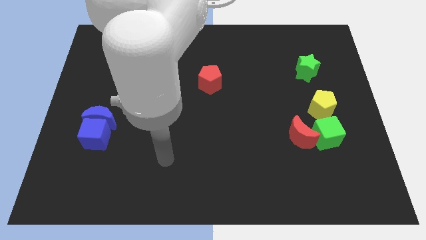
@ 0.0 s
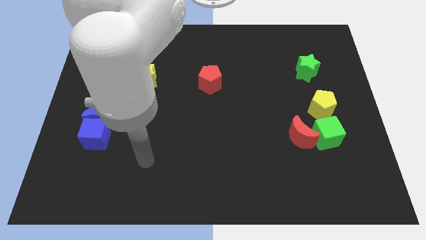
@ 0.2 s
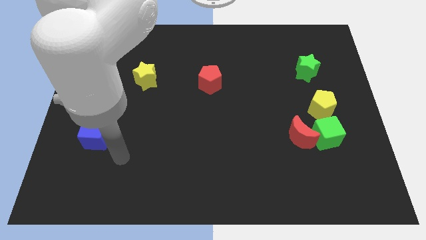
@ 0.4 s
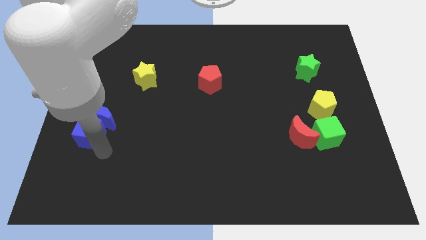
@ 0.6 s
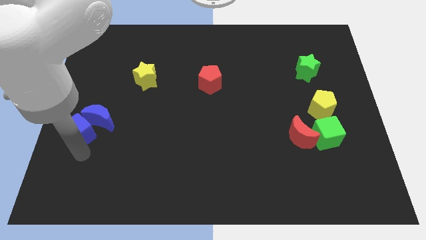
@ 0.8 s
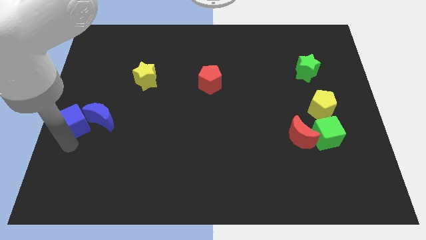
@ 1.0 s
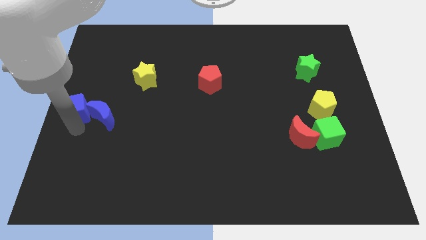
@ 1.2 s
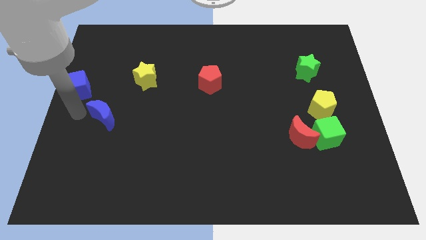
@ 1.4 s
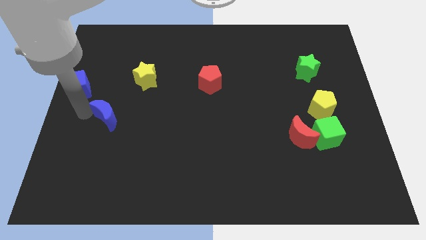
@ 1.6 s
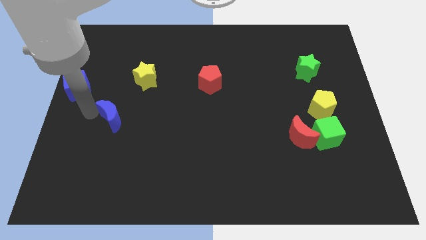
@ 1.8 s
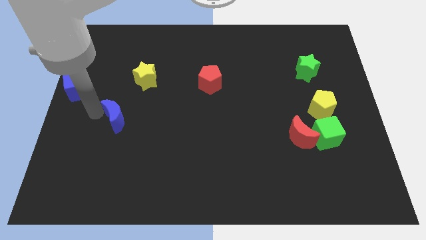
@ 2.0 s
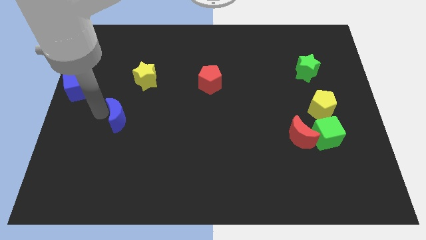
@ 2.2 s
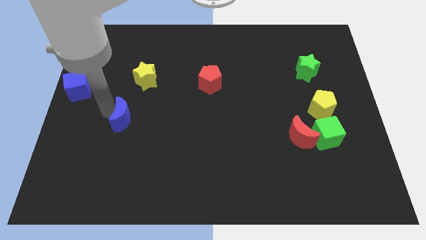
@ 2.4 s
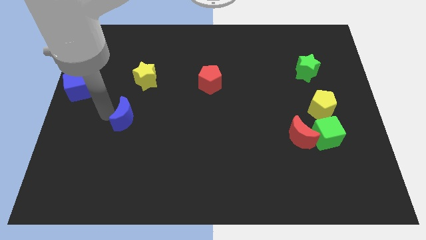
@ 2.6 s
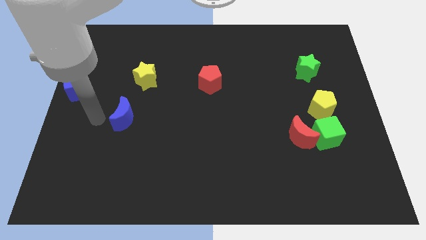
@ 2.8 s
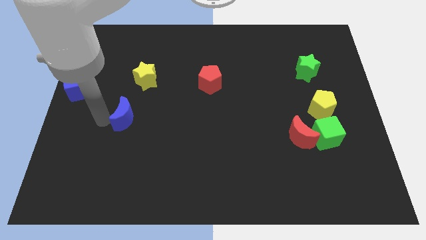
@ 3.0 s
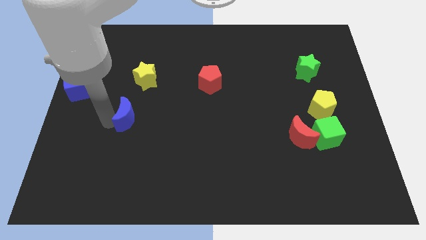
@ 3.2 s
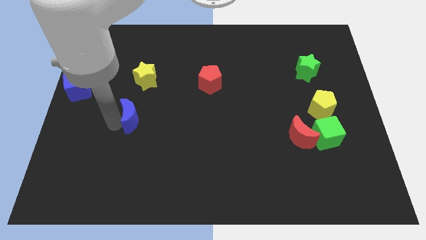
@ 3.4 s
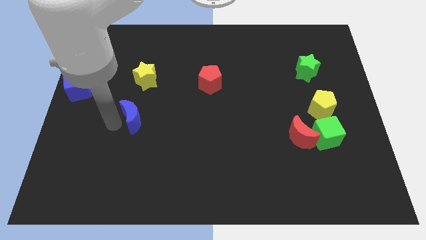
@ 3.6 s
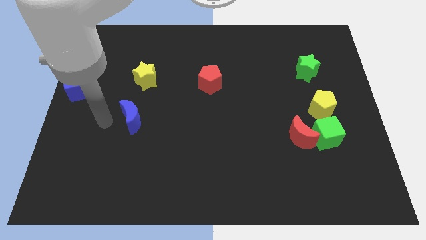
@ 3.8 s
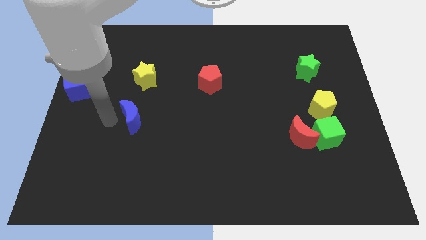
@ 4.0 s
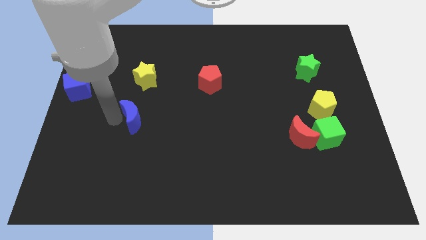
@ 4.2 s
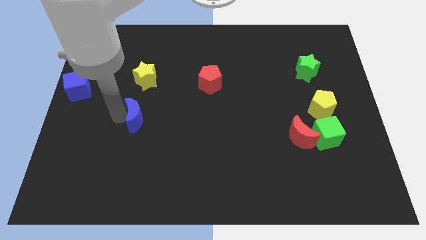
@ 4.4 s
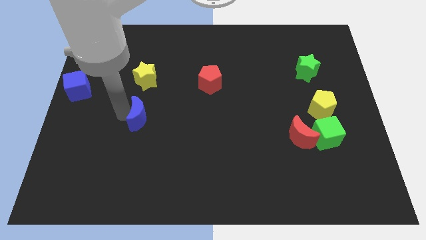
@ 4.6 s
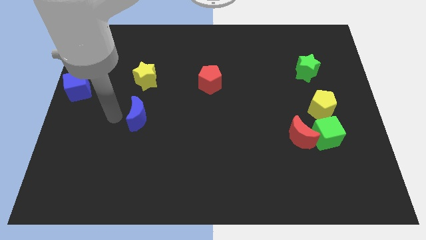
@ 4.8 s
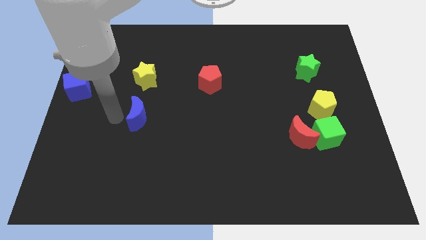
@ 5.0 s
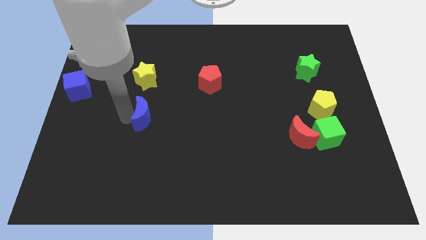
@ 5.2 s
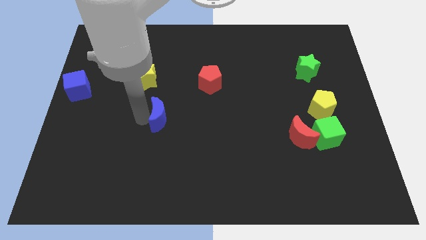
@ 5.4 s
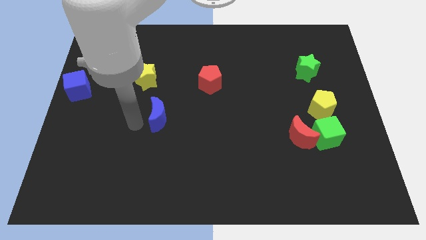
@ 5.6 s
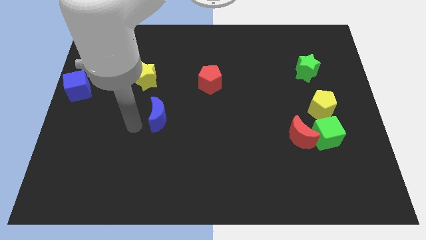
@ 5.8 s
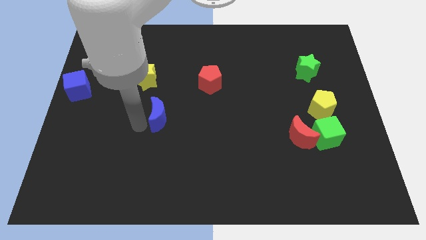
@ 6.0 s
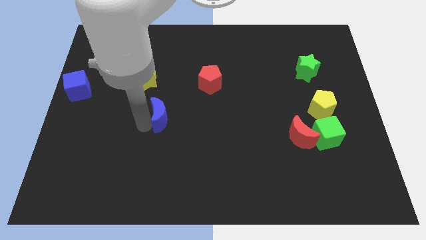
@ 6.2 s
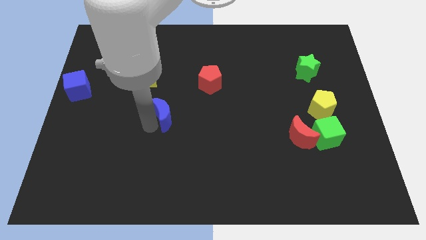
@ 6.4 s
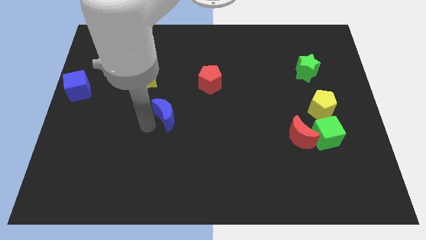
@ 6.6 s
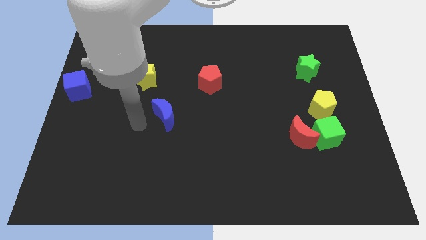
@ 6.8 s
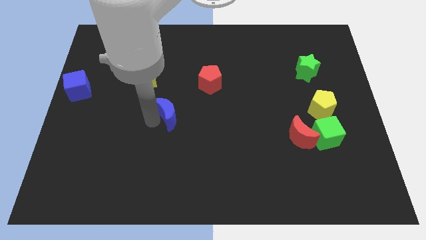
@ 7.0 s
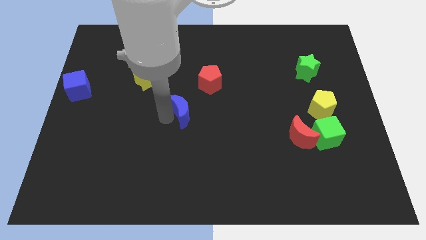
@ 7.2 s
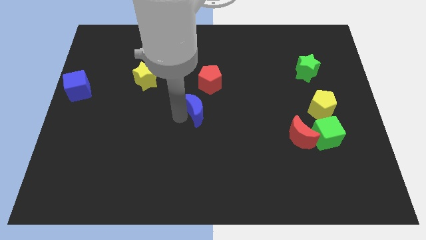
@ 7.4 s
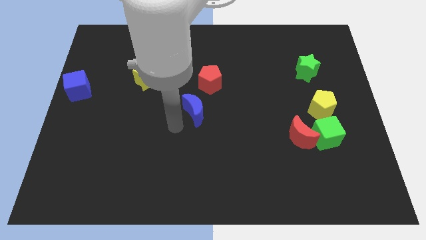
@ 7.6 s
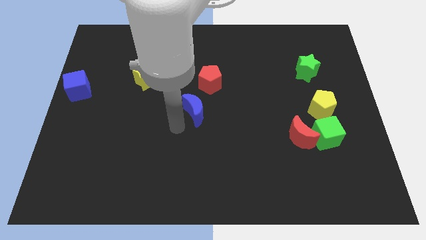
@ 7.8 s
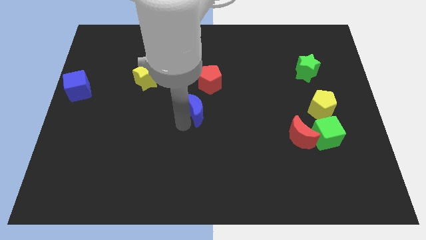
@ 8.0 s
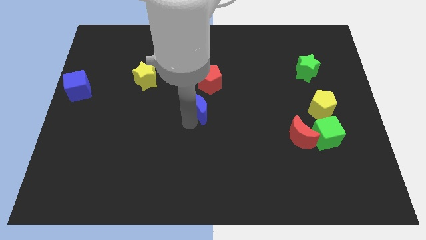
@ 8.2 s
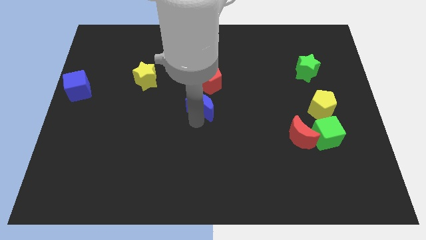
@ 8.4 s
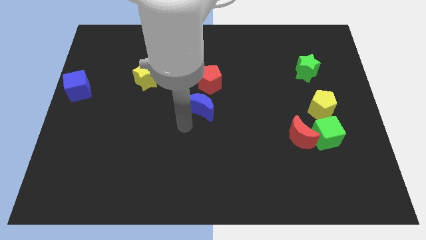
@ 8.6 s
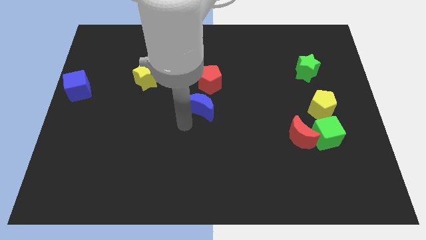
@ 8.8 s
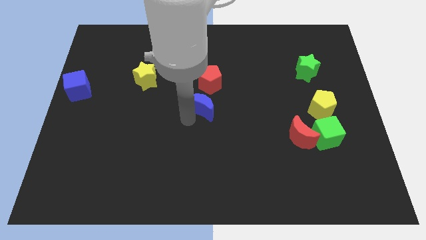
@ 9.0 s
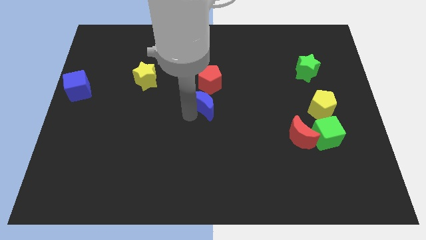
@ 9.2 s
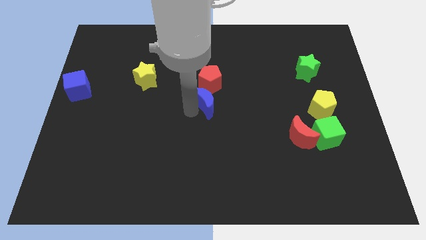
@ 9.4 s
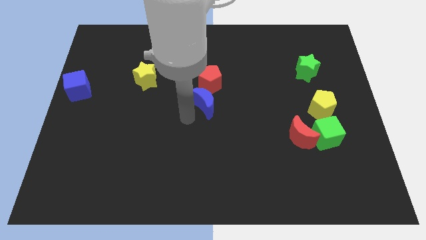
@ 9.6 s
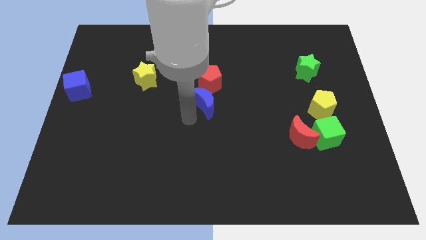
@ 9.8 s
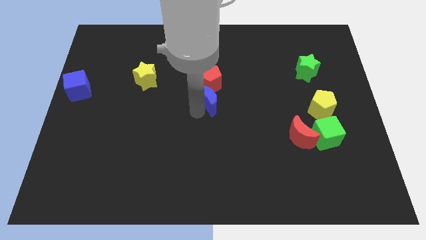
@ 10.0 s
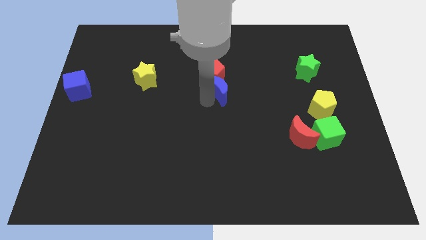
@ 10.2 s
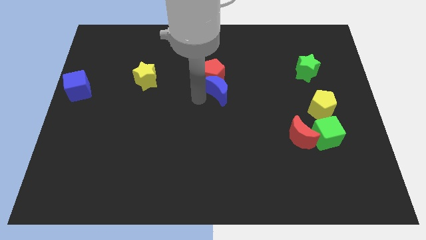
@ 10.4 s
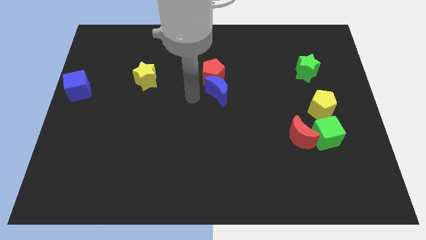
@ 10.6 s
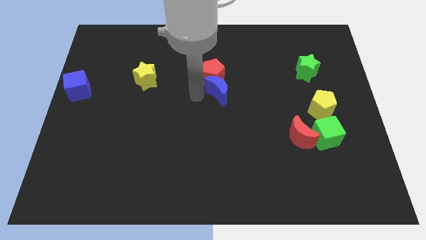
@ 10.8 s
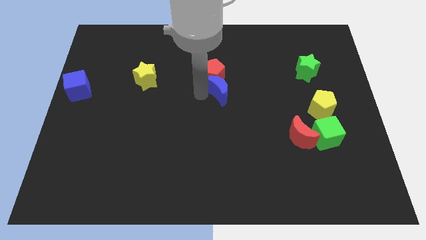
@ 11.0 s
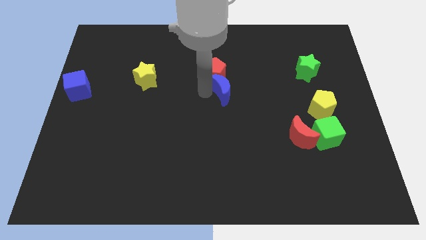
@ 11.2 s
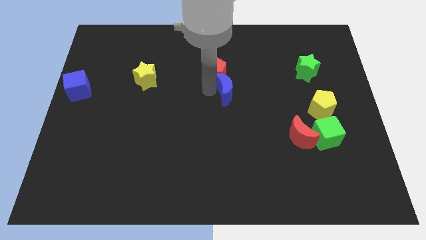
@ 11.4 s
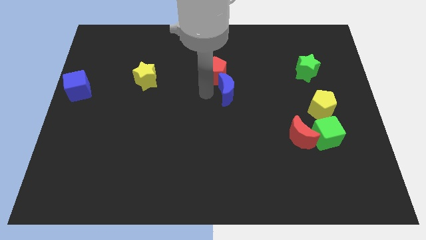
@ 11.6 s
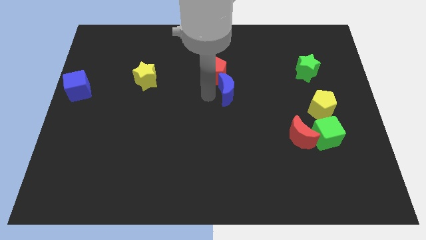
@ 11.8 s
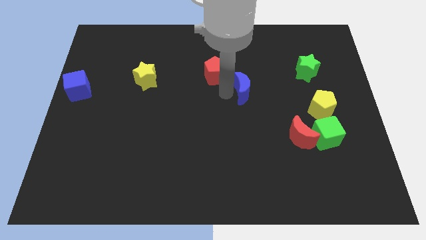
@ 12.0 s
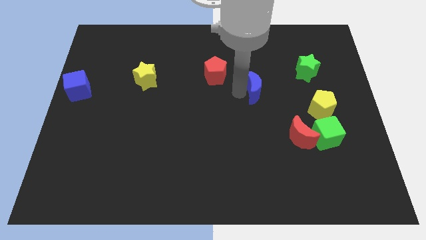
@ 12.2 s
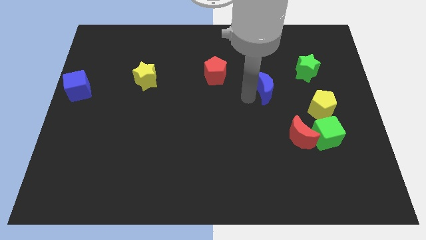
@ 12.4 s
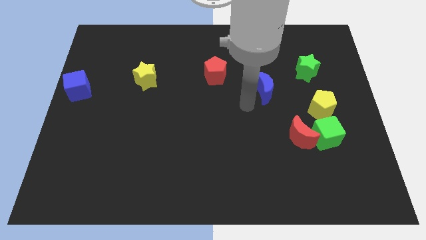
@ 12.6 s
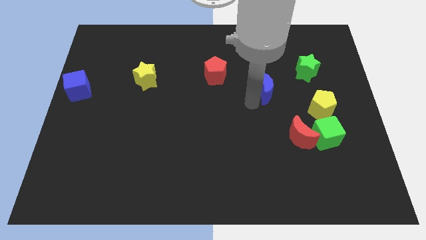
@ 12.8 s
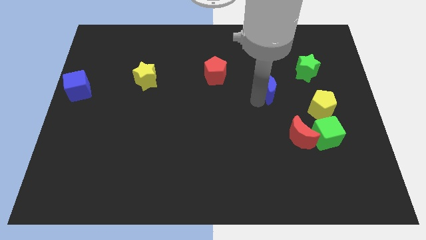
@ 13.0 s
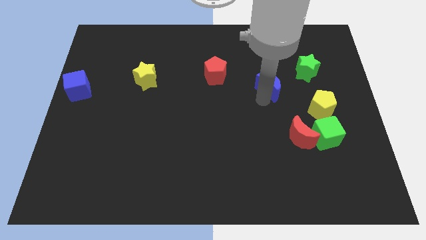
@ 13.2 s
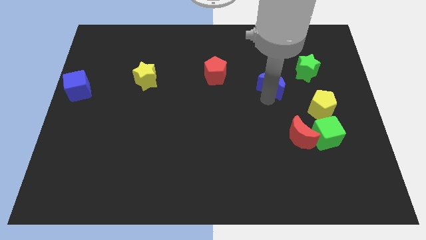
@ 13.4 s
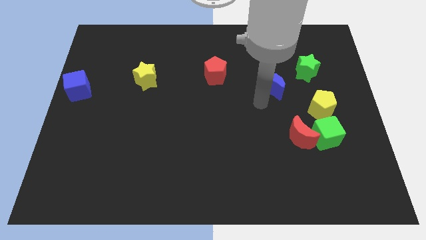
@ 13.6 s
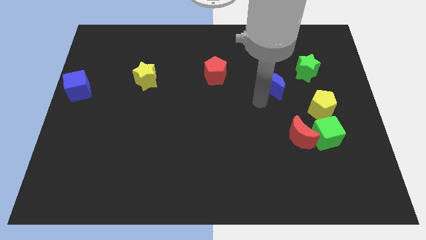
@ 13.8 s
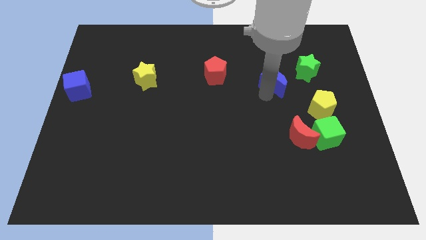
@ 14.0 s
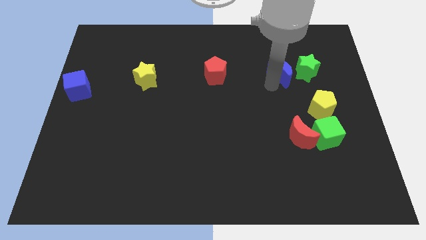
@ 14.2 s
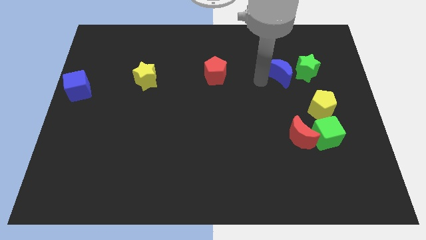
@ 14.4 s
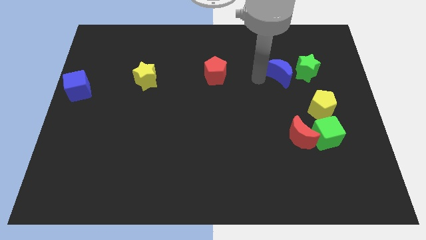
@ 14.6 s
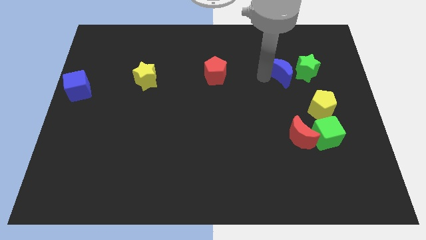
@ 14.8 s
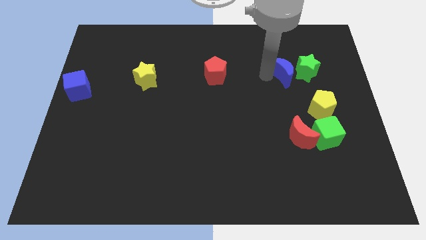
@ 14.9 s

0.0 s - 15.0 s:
slide the blue moon to the green star
